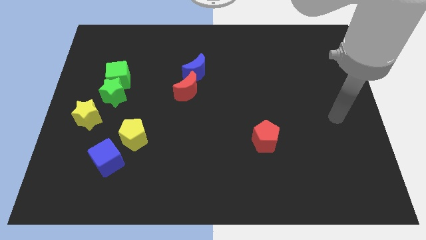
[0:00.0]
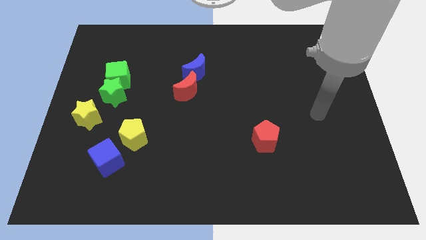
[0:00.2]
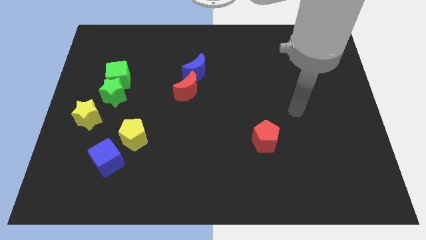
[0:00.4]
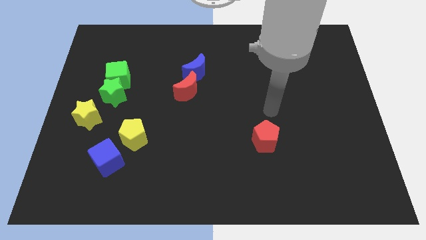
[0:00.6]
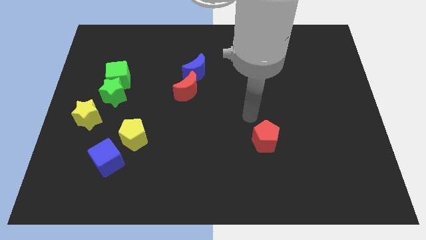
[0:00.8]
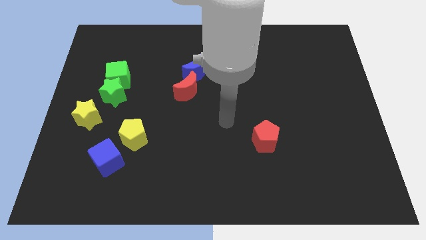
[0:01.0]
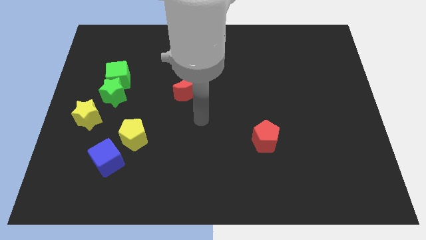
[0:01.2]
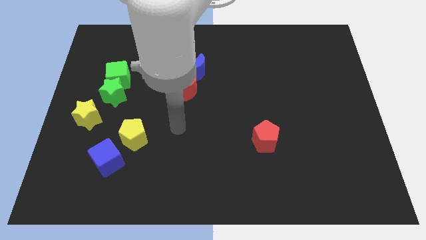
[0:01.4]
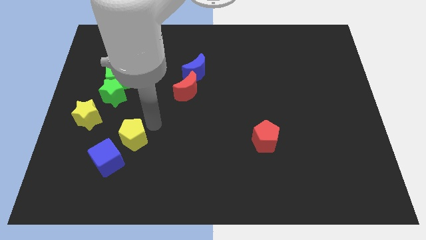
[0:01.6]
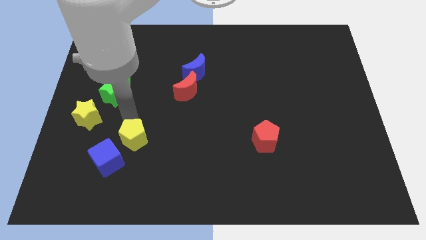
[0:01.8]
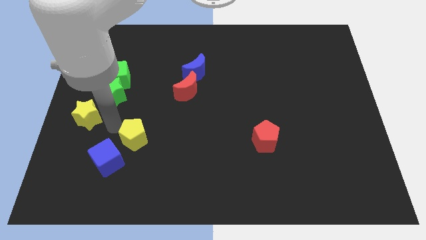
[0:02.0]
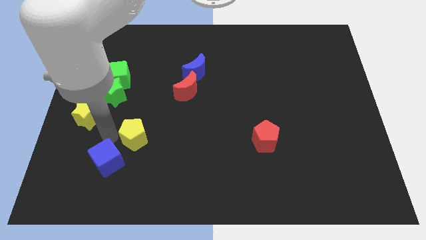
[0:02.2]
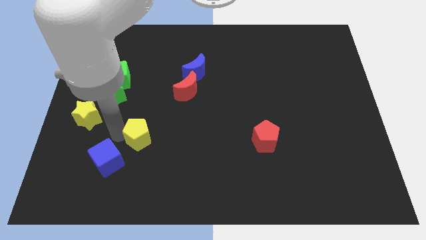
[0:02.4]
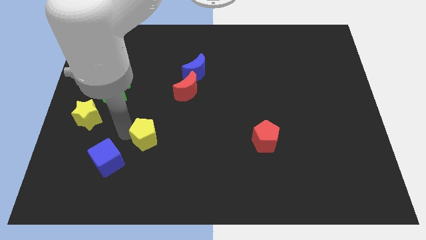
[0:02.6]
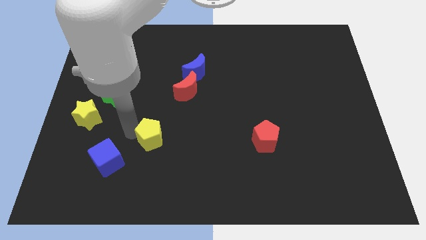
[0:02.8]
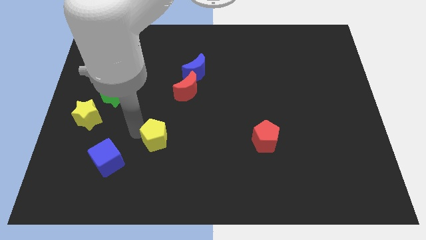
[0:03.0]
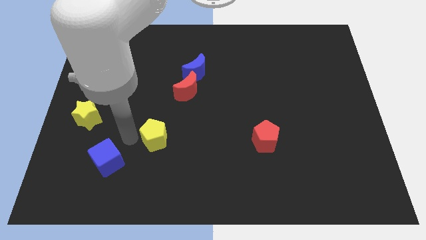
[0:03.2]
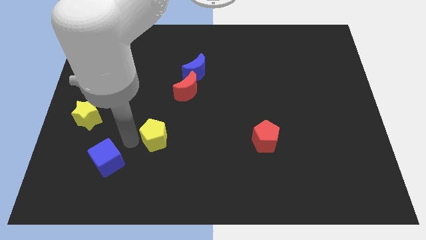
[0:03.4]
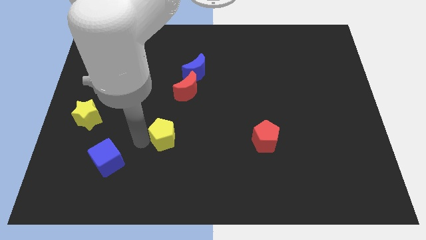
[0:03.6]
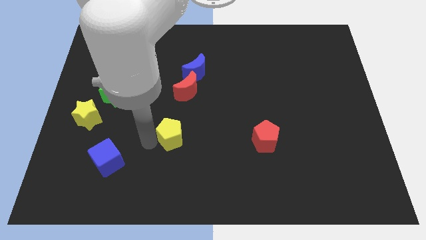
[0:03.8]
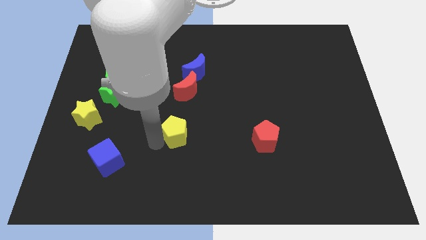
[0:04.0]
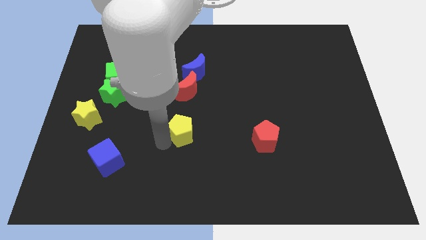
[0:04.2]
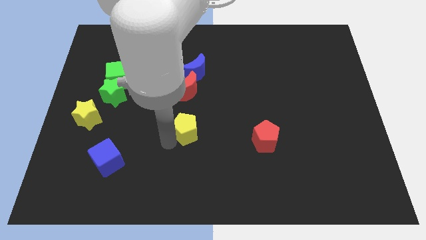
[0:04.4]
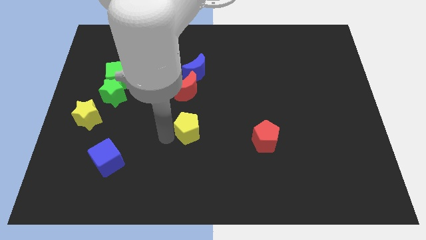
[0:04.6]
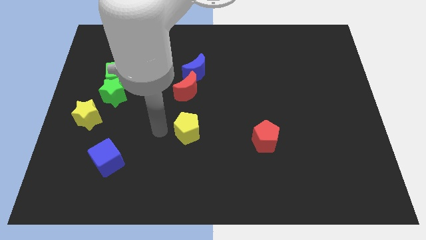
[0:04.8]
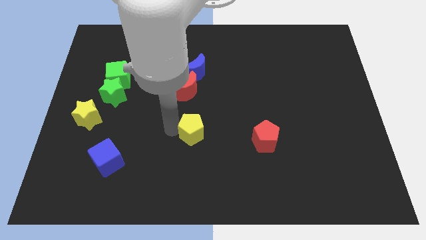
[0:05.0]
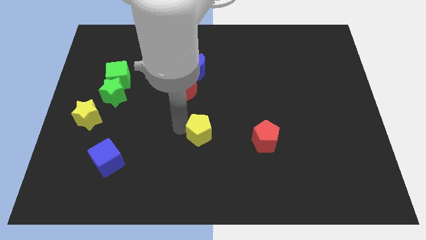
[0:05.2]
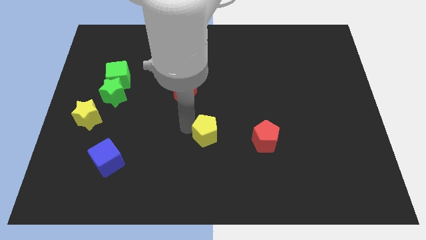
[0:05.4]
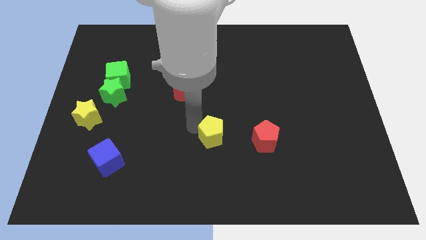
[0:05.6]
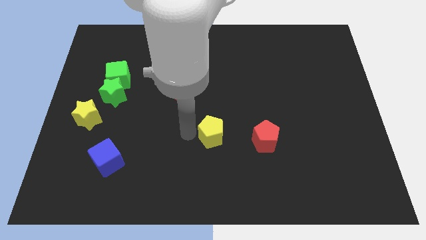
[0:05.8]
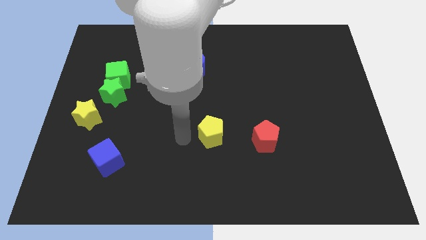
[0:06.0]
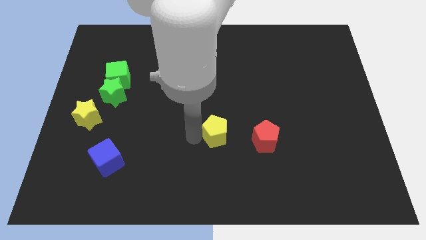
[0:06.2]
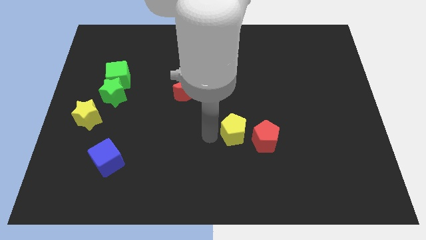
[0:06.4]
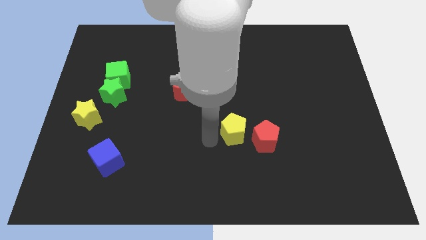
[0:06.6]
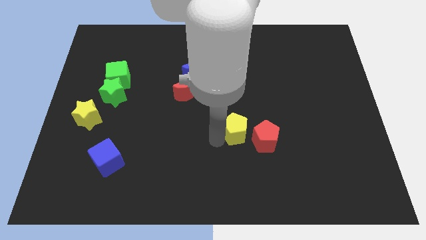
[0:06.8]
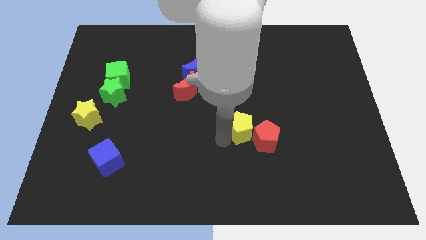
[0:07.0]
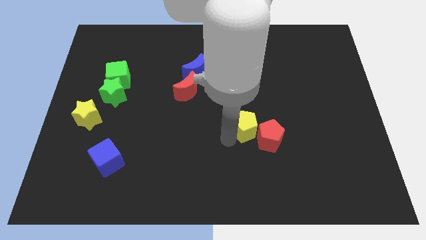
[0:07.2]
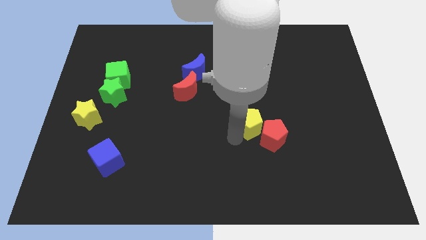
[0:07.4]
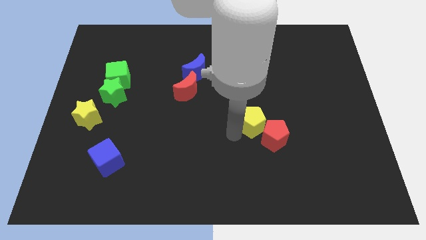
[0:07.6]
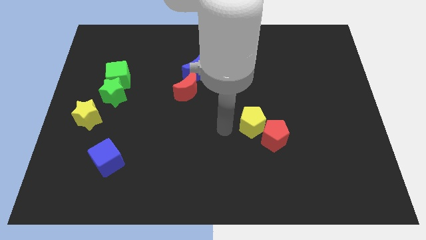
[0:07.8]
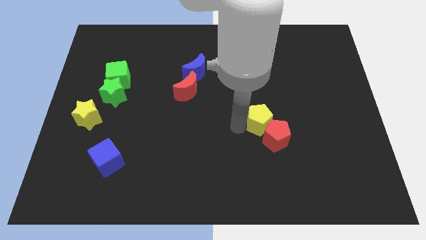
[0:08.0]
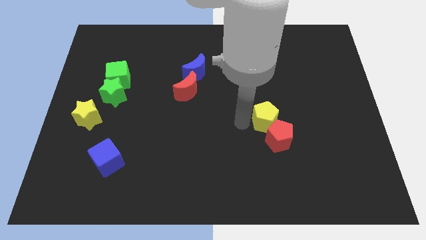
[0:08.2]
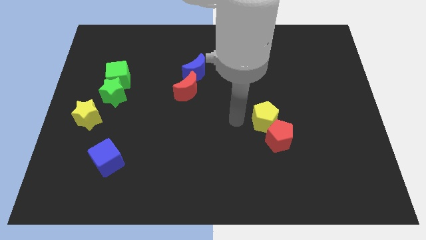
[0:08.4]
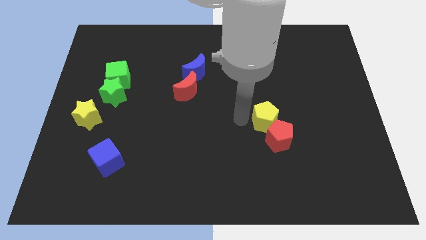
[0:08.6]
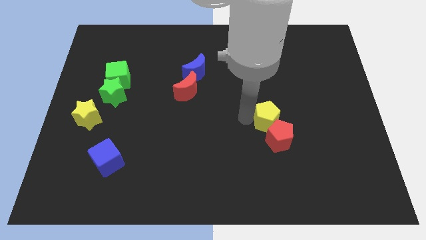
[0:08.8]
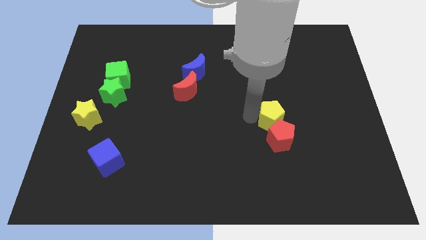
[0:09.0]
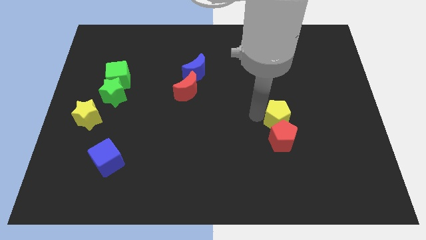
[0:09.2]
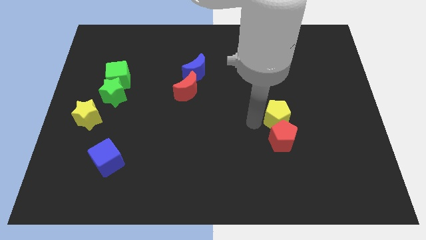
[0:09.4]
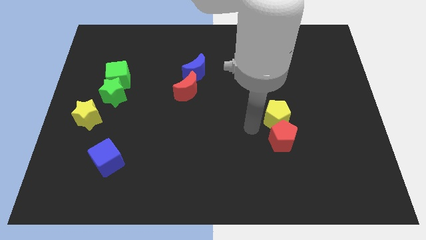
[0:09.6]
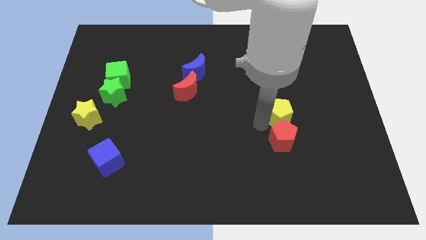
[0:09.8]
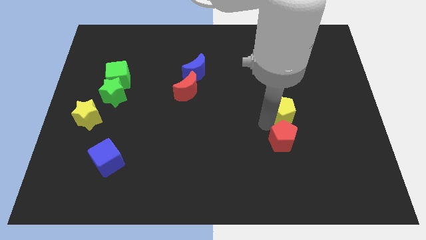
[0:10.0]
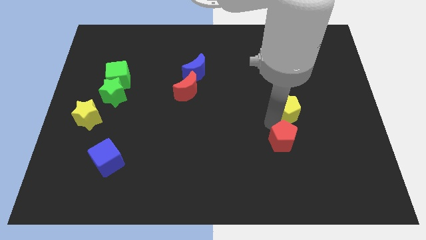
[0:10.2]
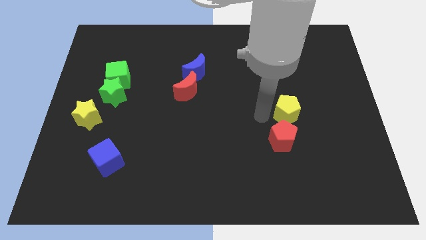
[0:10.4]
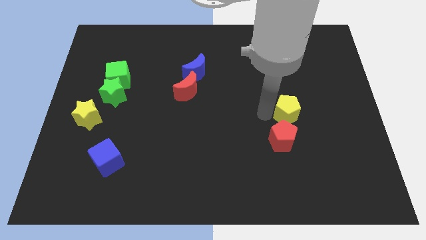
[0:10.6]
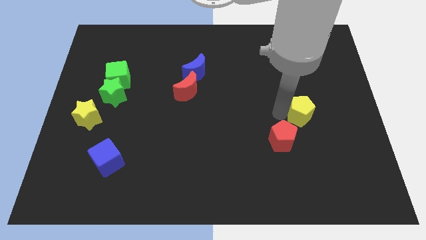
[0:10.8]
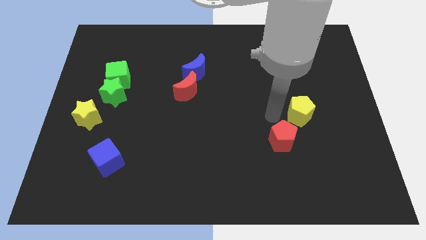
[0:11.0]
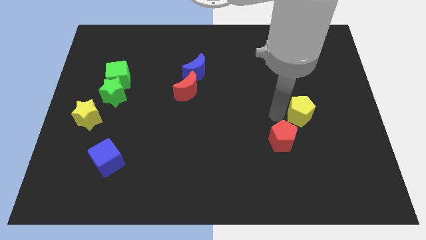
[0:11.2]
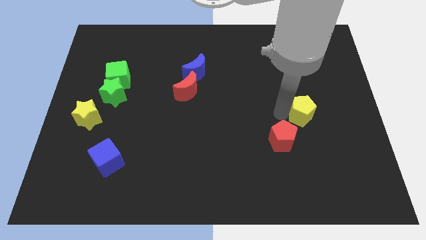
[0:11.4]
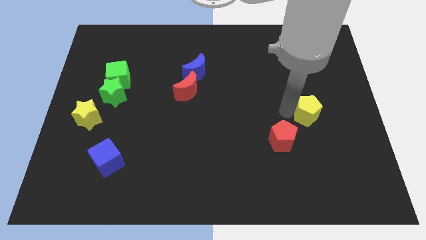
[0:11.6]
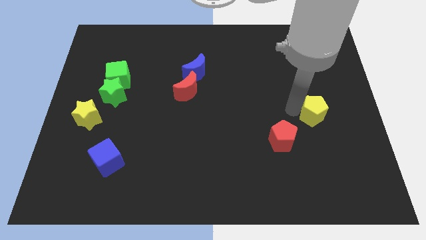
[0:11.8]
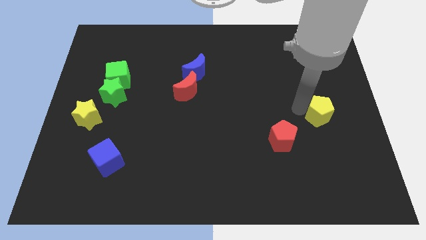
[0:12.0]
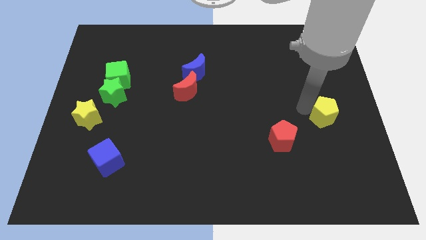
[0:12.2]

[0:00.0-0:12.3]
move the yellow pentagon to the right side of the board
